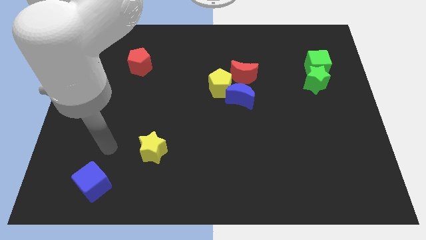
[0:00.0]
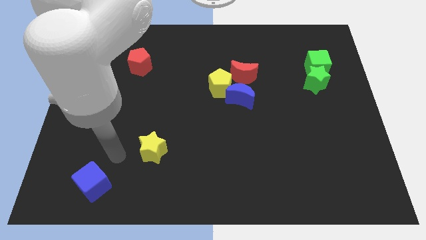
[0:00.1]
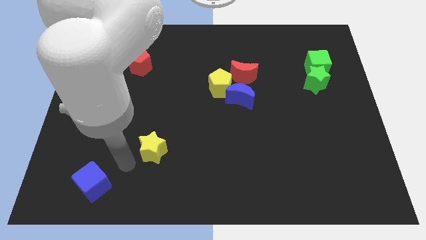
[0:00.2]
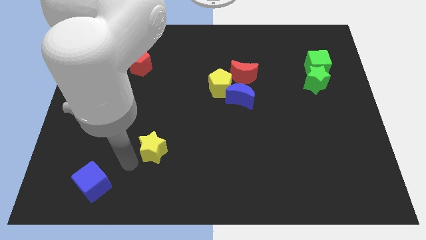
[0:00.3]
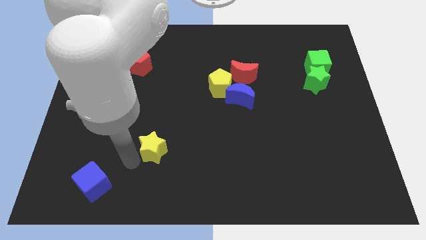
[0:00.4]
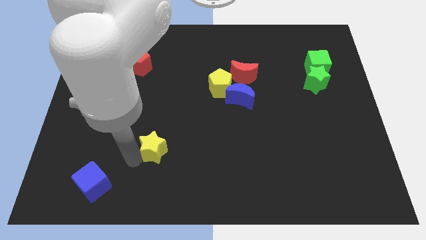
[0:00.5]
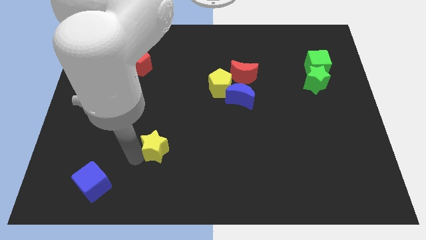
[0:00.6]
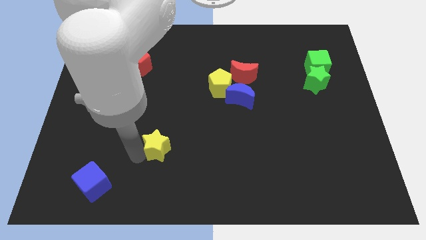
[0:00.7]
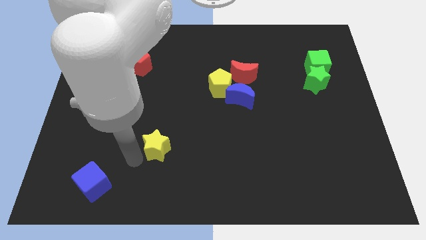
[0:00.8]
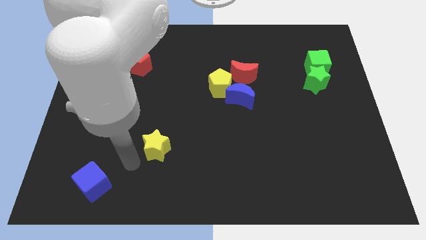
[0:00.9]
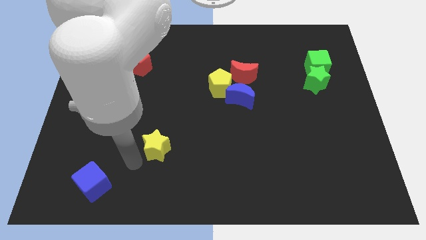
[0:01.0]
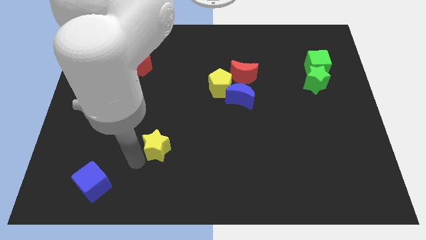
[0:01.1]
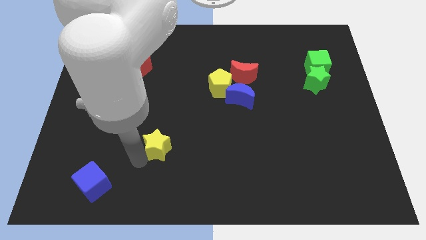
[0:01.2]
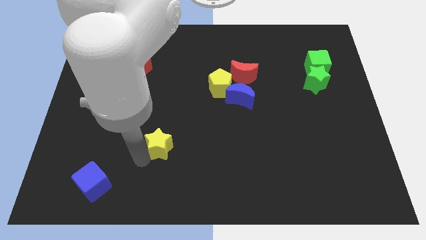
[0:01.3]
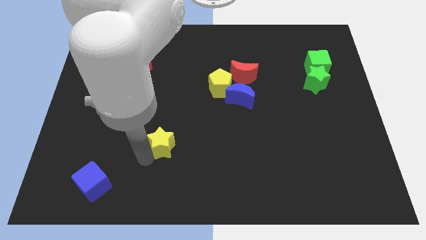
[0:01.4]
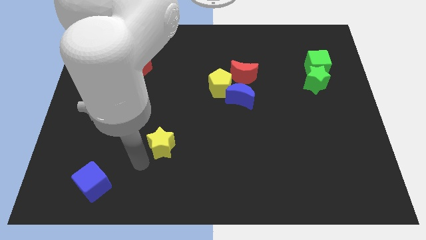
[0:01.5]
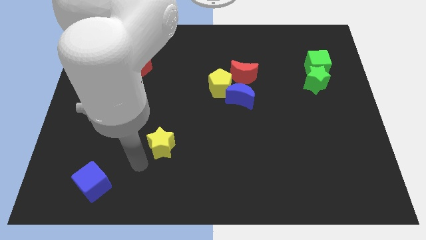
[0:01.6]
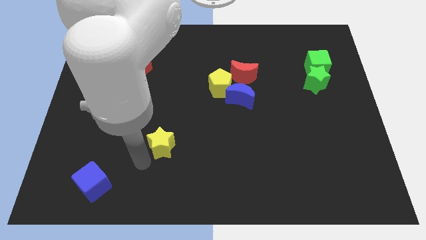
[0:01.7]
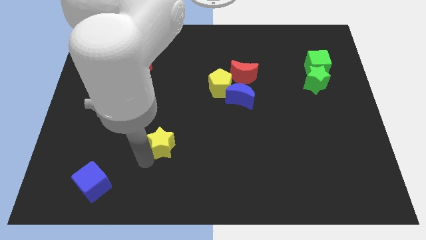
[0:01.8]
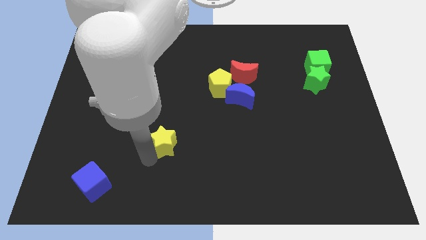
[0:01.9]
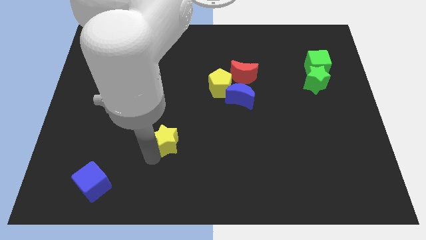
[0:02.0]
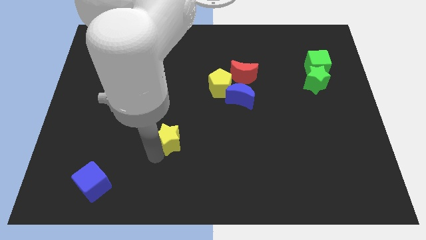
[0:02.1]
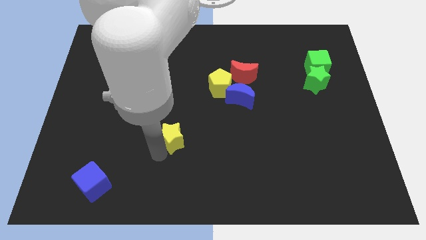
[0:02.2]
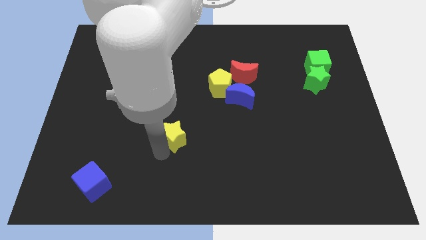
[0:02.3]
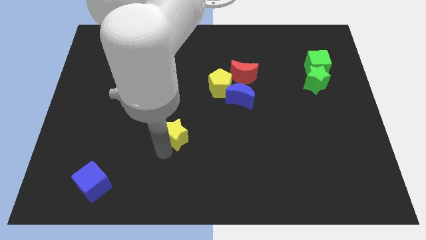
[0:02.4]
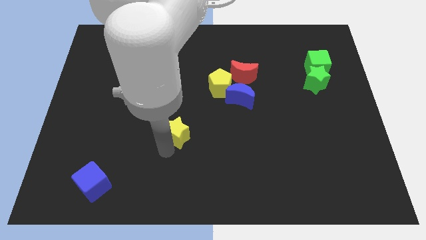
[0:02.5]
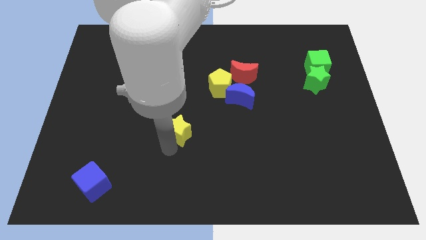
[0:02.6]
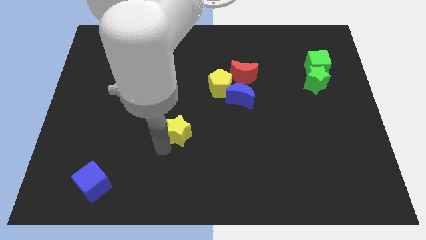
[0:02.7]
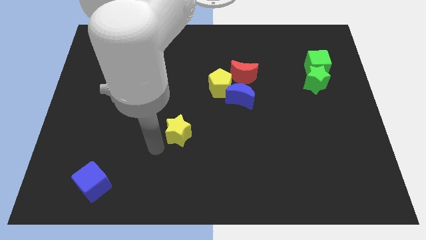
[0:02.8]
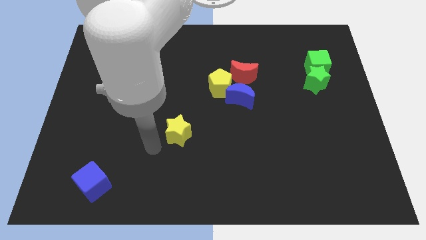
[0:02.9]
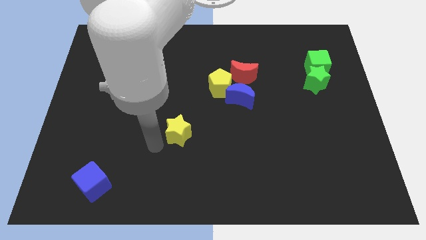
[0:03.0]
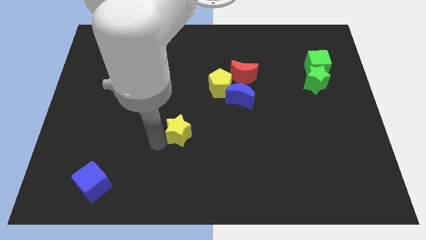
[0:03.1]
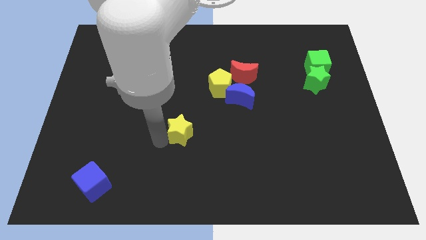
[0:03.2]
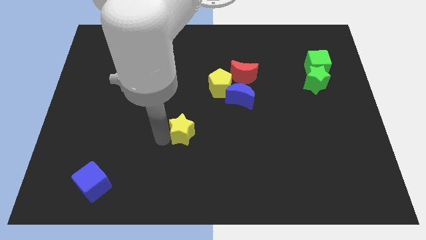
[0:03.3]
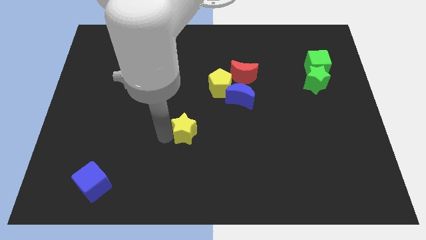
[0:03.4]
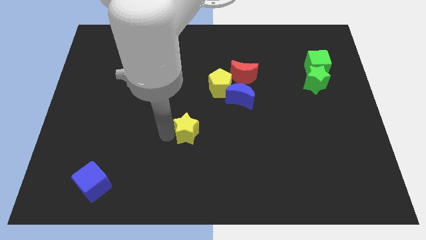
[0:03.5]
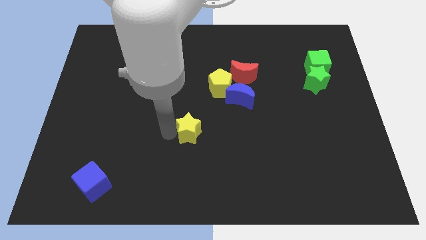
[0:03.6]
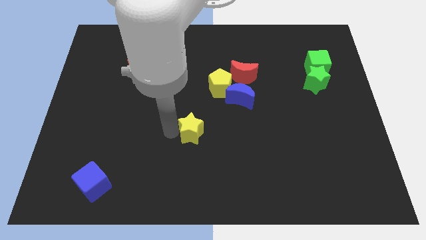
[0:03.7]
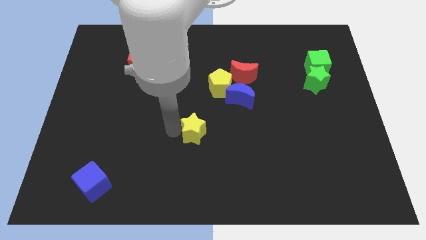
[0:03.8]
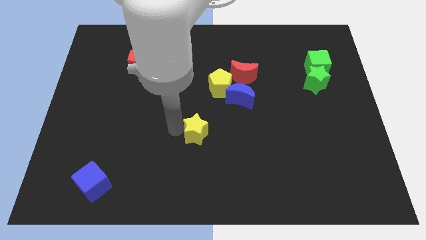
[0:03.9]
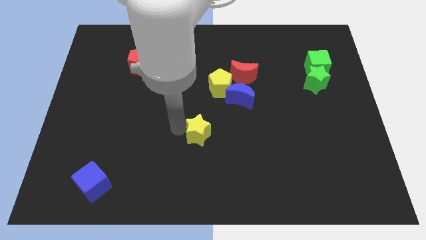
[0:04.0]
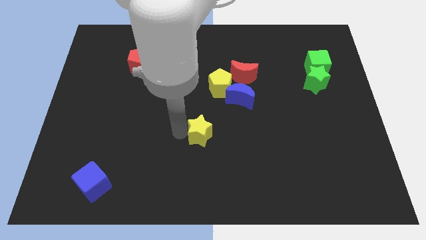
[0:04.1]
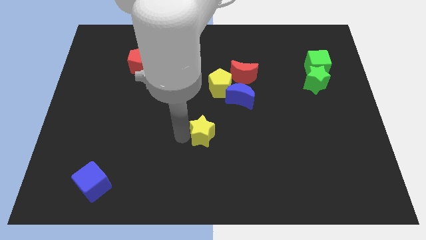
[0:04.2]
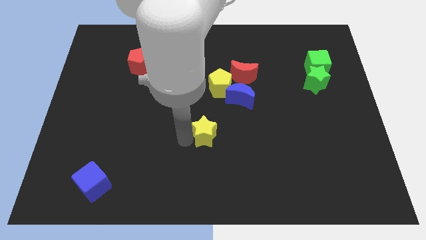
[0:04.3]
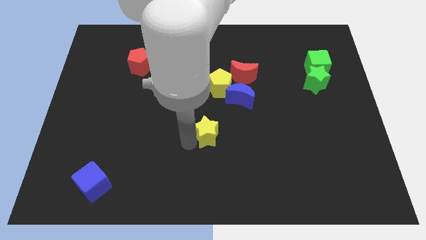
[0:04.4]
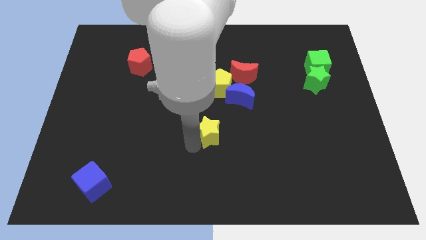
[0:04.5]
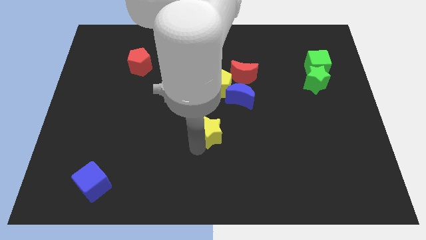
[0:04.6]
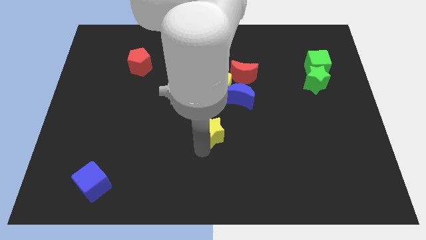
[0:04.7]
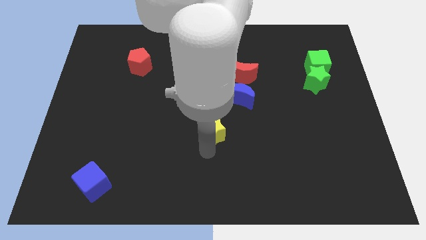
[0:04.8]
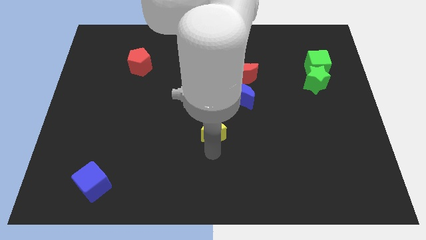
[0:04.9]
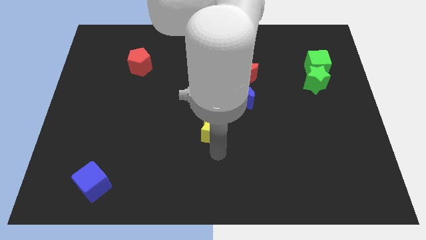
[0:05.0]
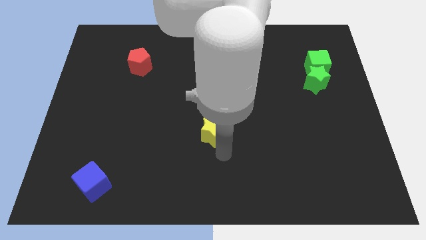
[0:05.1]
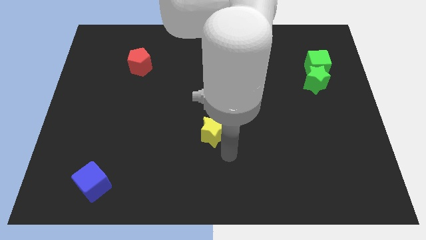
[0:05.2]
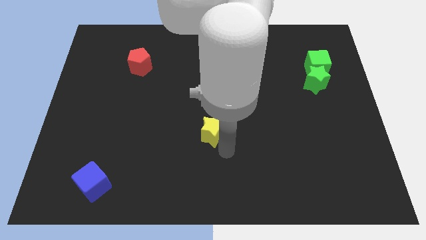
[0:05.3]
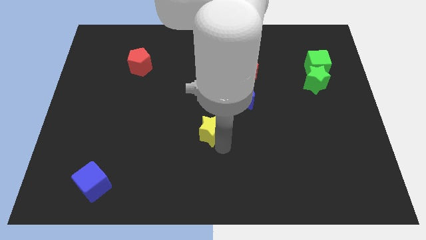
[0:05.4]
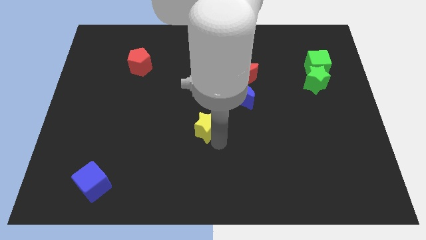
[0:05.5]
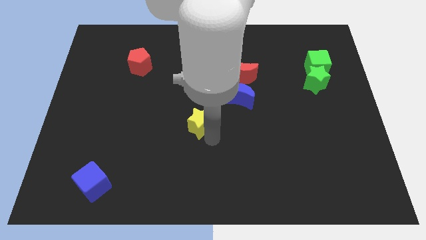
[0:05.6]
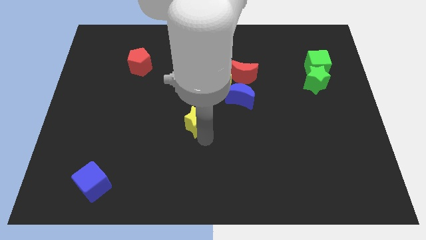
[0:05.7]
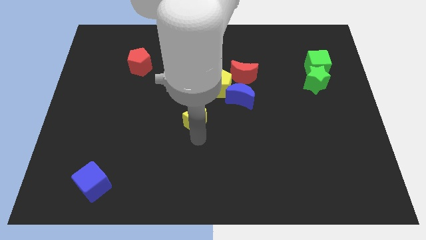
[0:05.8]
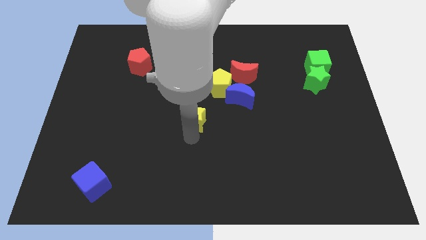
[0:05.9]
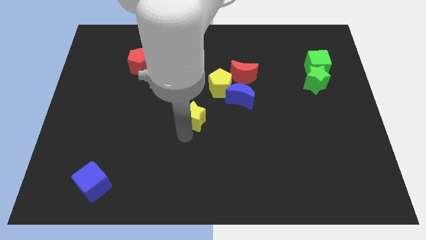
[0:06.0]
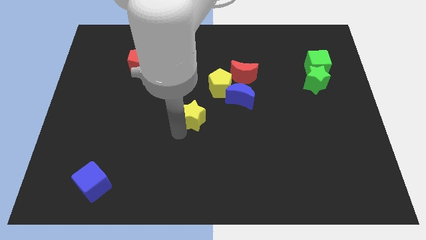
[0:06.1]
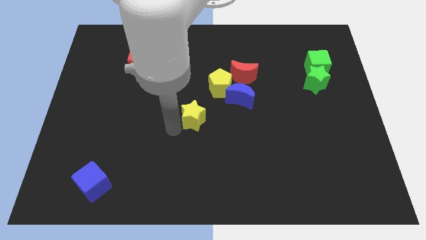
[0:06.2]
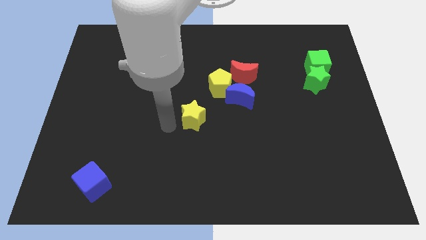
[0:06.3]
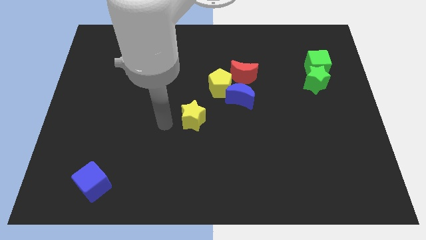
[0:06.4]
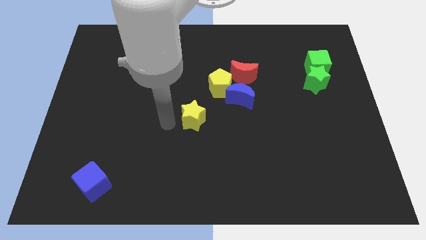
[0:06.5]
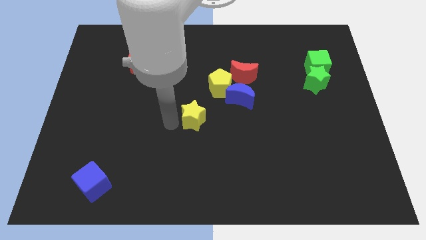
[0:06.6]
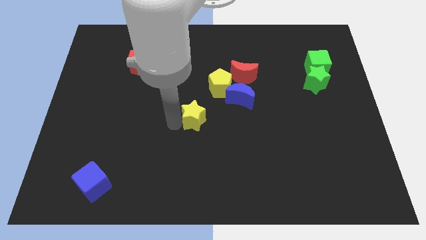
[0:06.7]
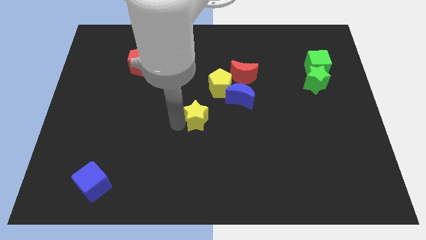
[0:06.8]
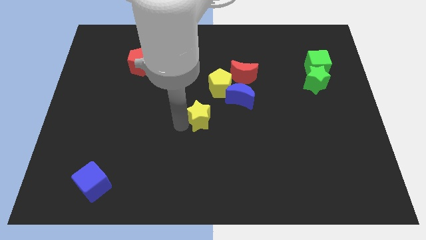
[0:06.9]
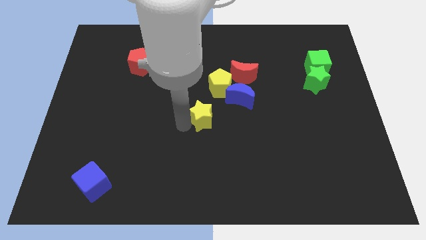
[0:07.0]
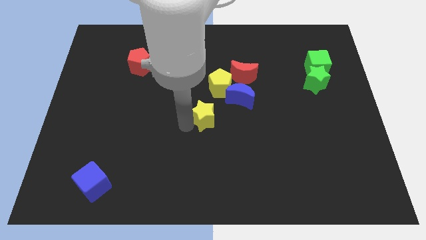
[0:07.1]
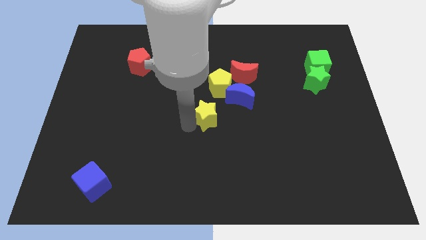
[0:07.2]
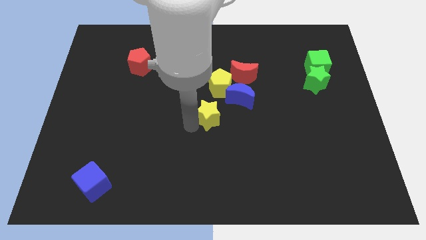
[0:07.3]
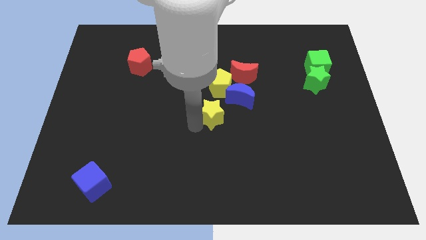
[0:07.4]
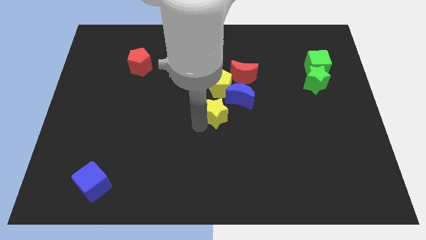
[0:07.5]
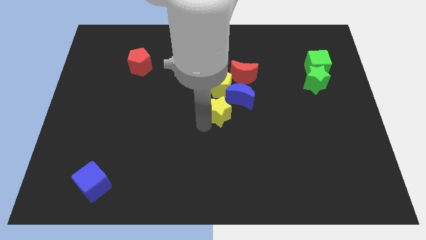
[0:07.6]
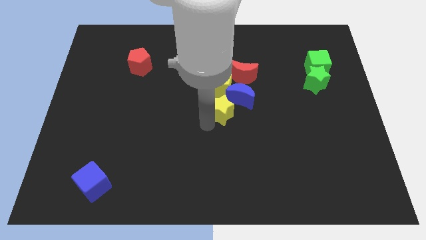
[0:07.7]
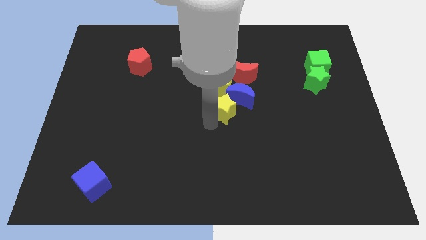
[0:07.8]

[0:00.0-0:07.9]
move the yellow star to the blue moon
